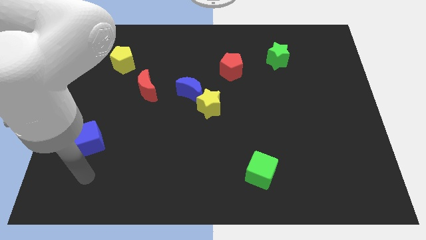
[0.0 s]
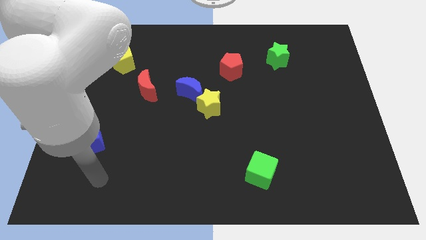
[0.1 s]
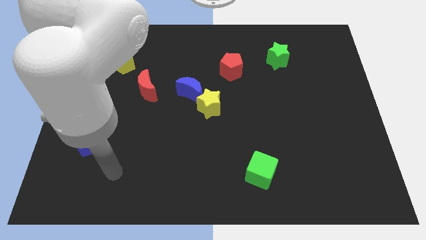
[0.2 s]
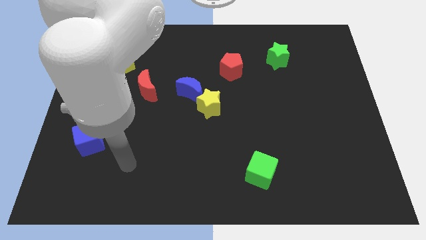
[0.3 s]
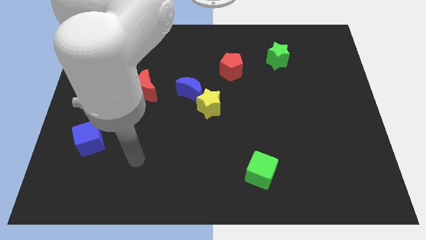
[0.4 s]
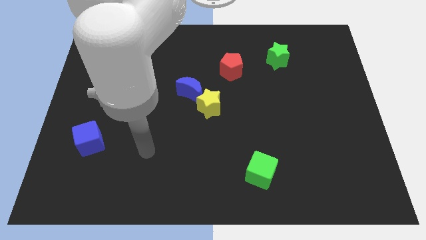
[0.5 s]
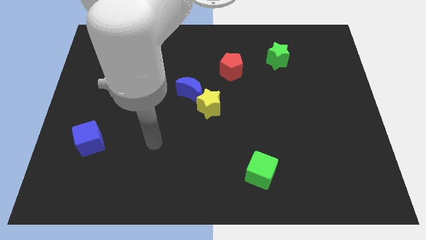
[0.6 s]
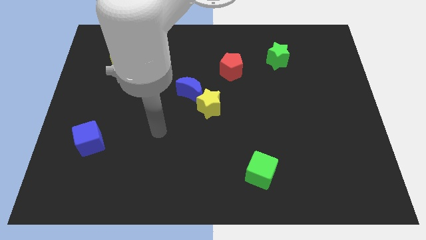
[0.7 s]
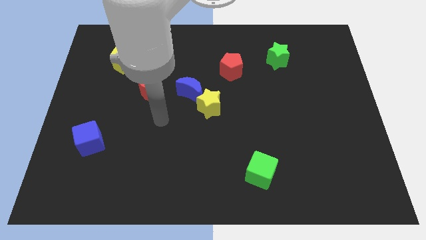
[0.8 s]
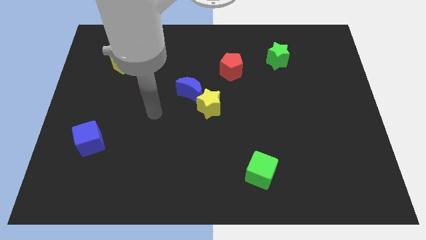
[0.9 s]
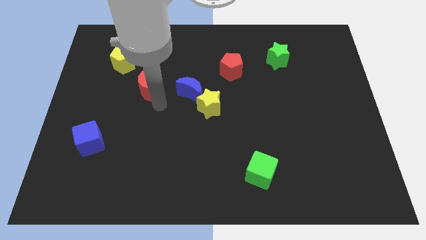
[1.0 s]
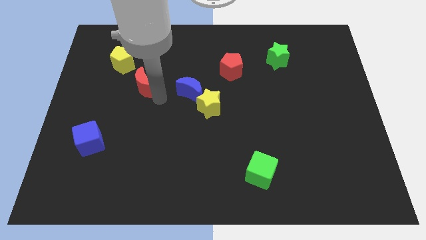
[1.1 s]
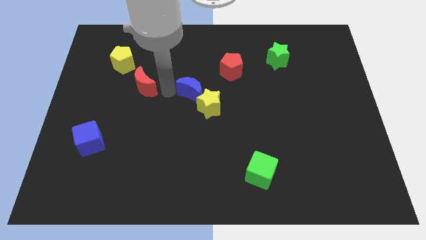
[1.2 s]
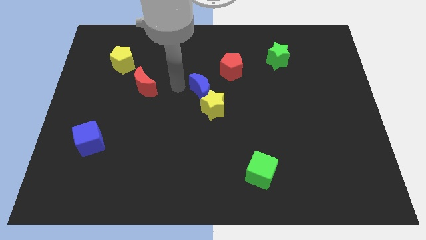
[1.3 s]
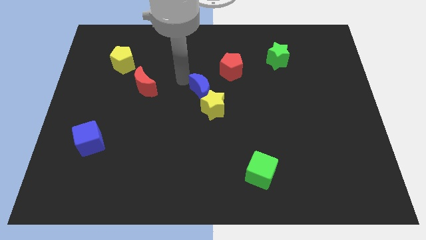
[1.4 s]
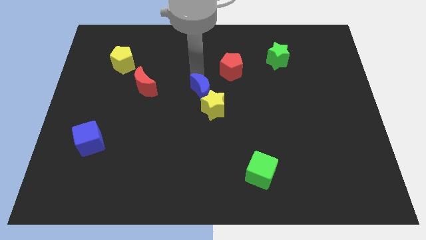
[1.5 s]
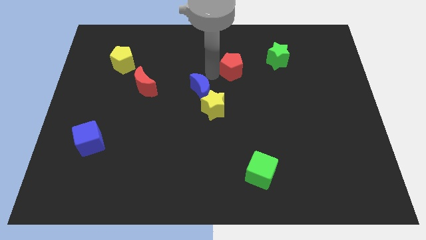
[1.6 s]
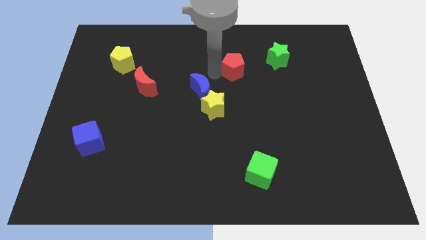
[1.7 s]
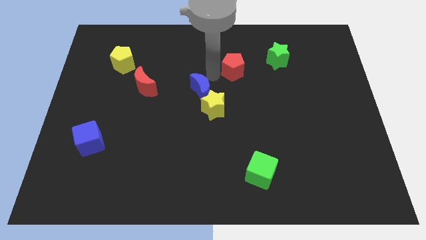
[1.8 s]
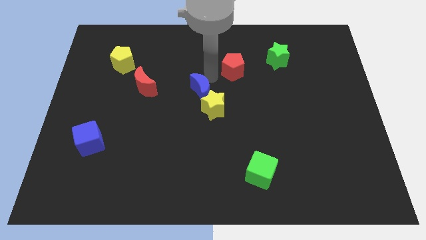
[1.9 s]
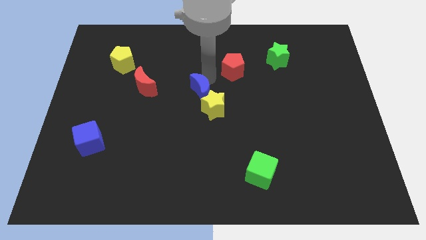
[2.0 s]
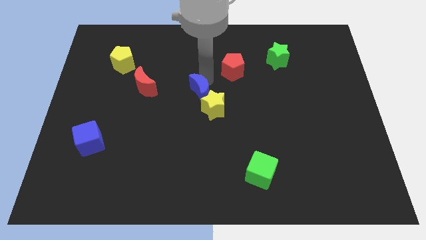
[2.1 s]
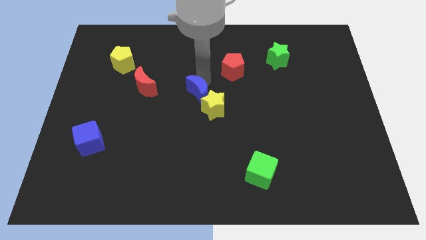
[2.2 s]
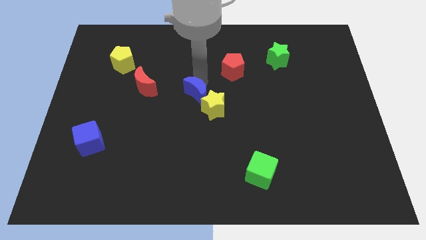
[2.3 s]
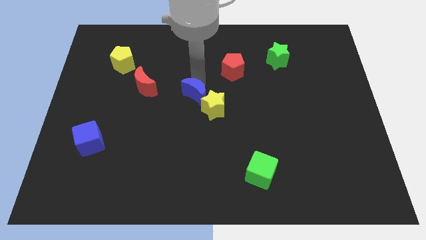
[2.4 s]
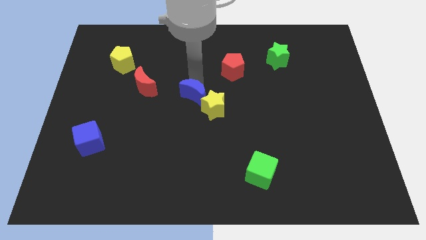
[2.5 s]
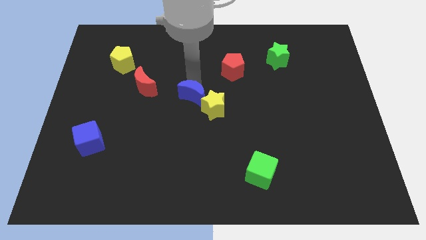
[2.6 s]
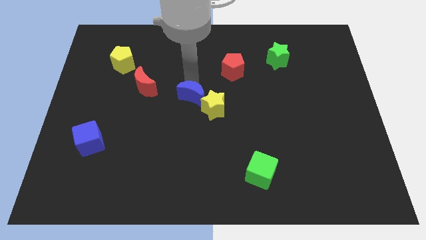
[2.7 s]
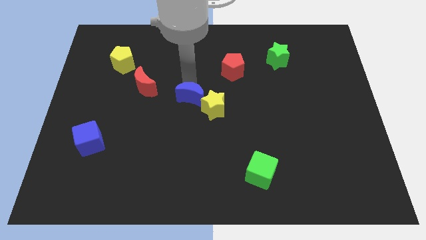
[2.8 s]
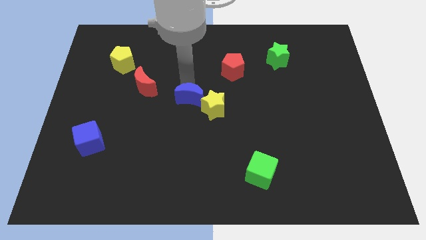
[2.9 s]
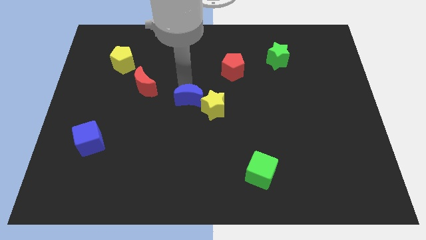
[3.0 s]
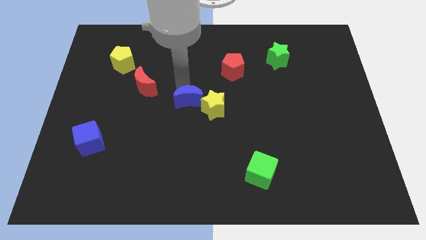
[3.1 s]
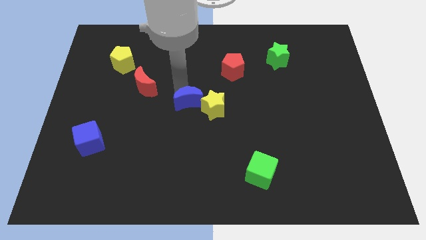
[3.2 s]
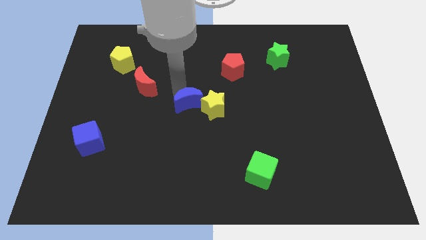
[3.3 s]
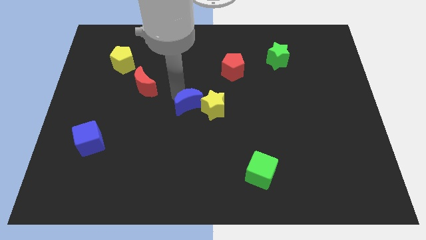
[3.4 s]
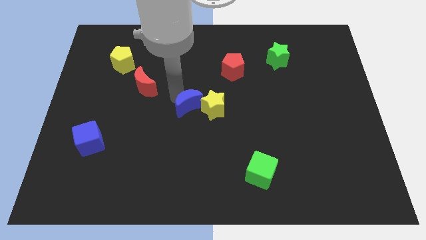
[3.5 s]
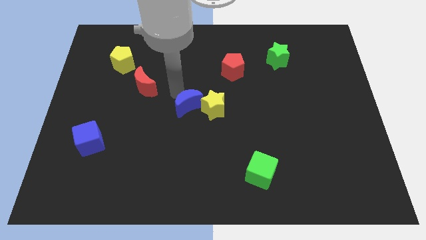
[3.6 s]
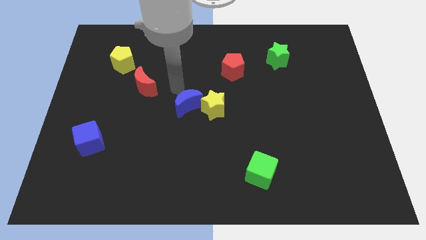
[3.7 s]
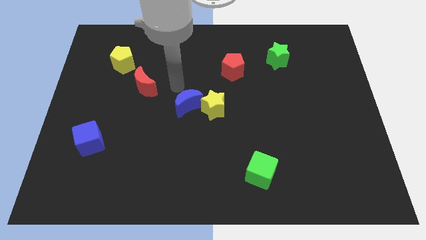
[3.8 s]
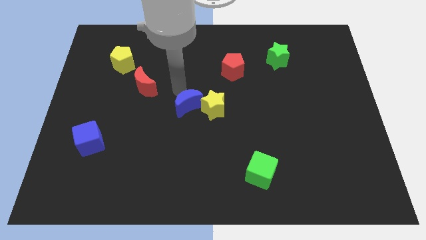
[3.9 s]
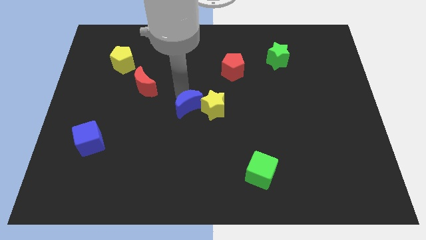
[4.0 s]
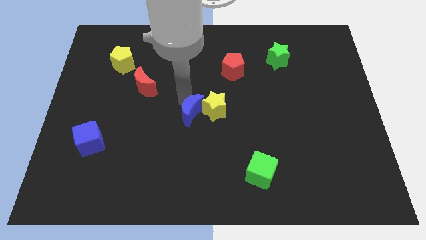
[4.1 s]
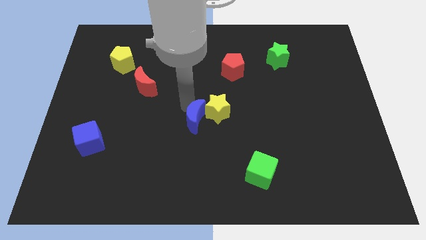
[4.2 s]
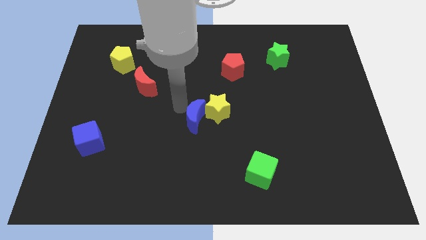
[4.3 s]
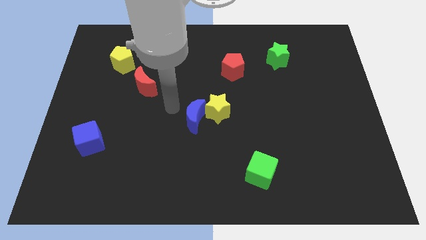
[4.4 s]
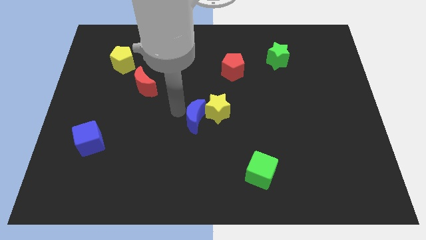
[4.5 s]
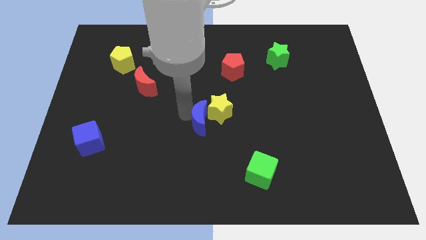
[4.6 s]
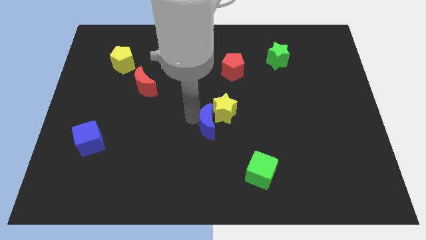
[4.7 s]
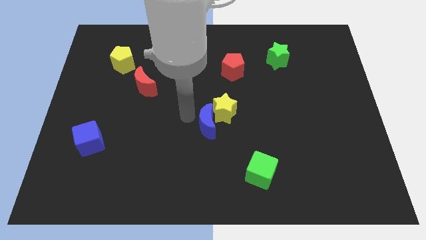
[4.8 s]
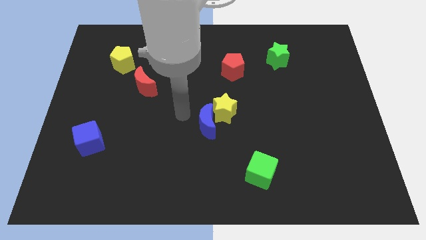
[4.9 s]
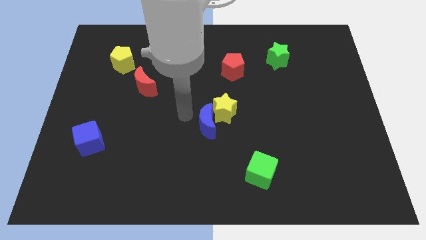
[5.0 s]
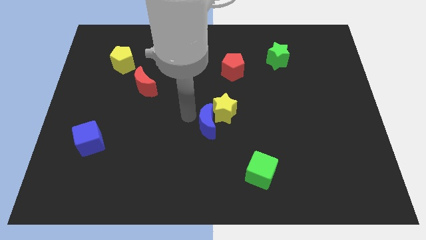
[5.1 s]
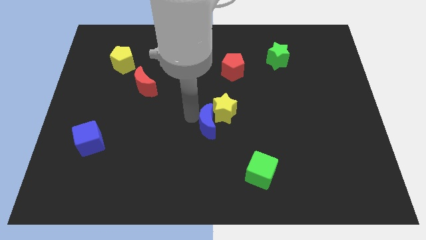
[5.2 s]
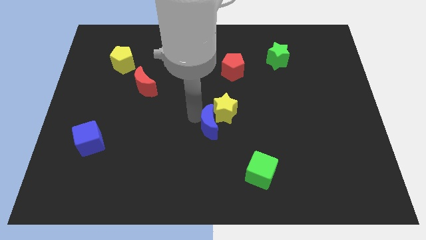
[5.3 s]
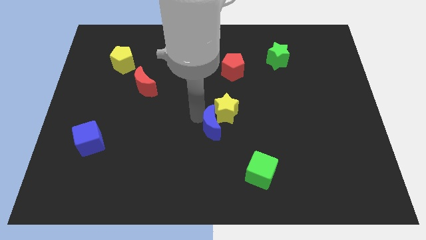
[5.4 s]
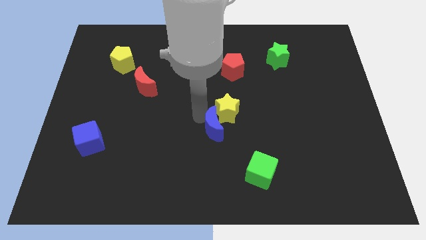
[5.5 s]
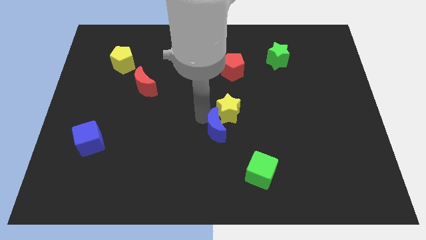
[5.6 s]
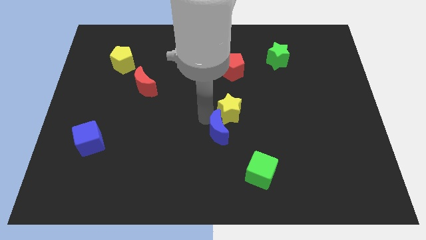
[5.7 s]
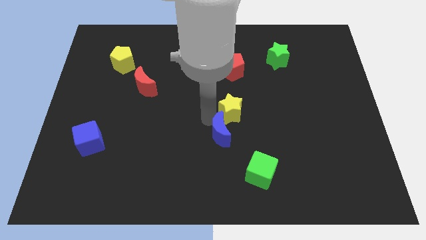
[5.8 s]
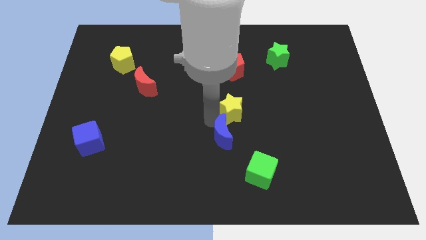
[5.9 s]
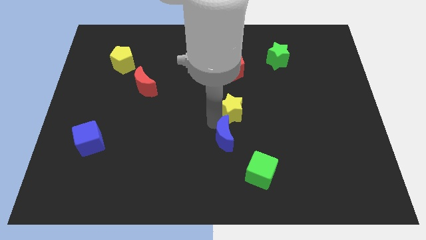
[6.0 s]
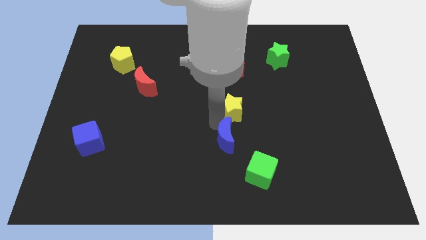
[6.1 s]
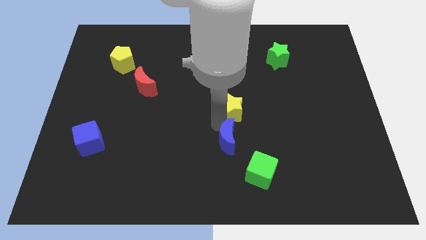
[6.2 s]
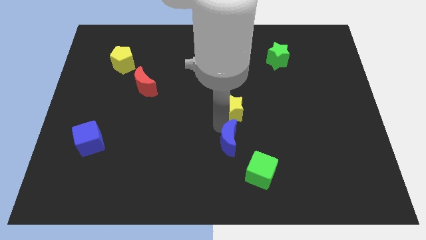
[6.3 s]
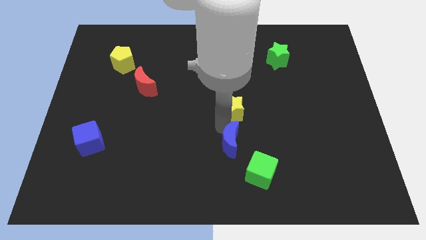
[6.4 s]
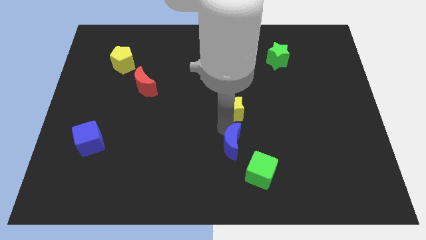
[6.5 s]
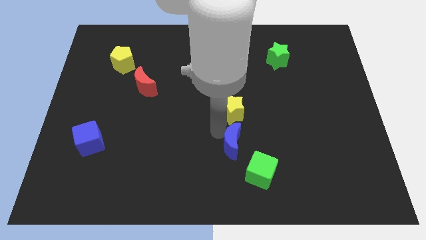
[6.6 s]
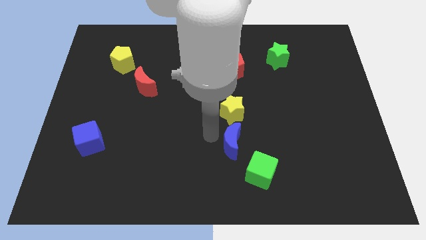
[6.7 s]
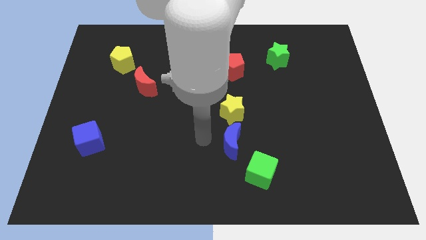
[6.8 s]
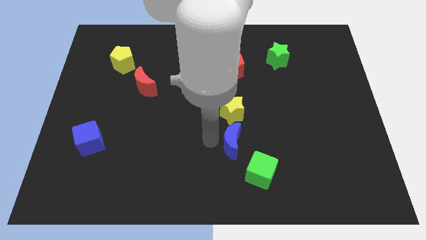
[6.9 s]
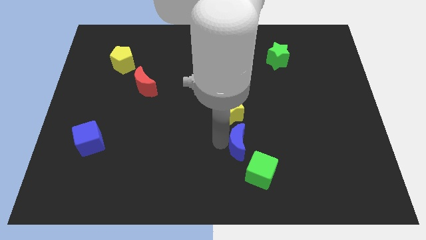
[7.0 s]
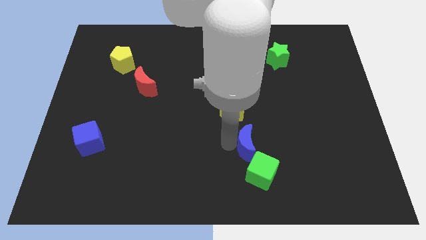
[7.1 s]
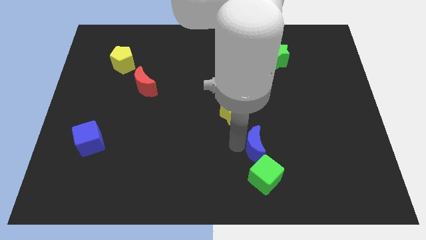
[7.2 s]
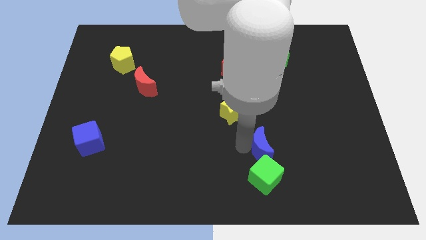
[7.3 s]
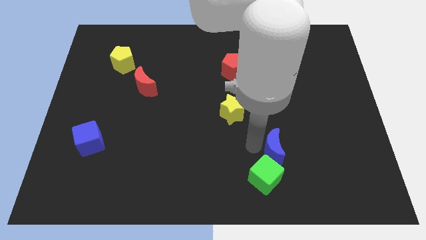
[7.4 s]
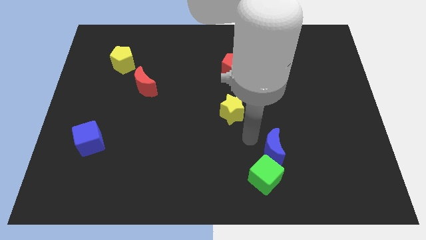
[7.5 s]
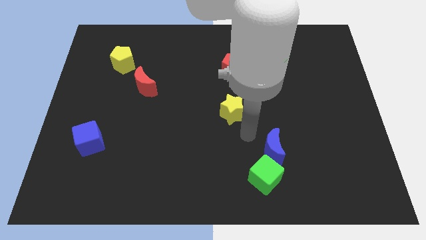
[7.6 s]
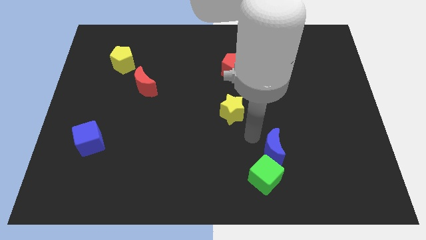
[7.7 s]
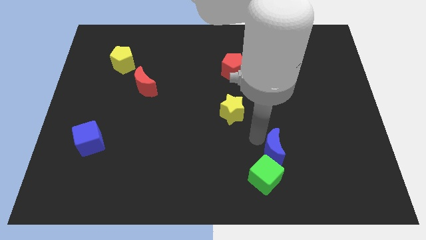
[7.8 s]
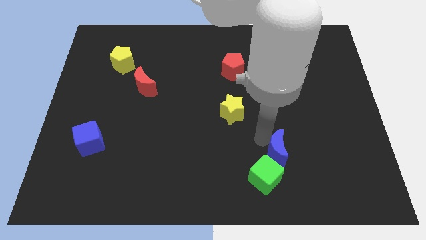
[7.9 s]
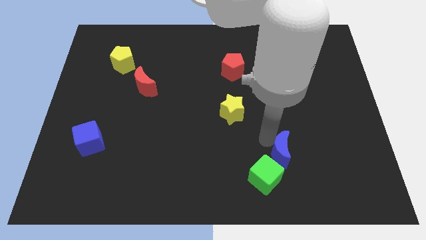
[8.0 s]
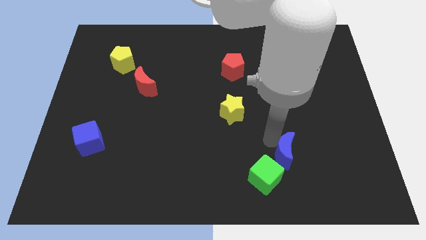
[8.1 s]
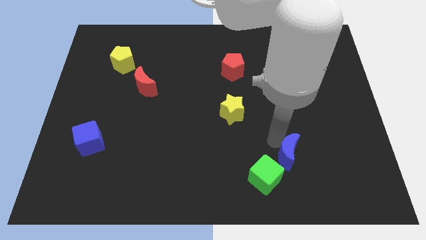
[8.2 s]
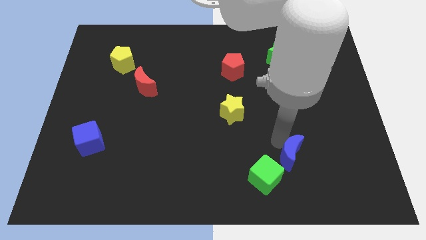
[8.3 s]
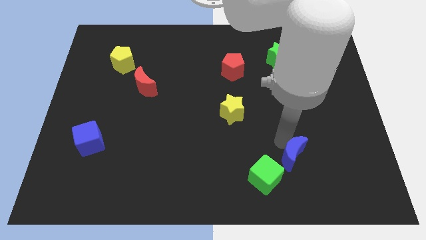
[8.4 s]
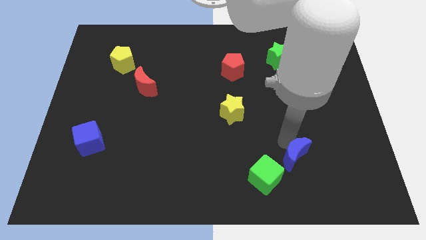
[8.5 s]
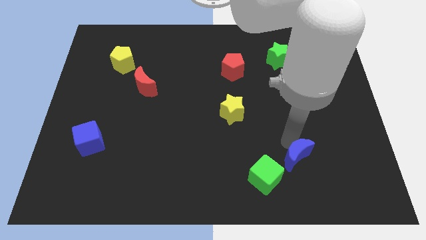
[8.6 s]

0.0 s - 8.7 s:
move the blue moon to the right of the green cube
